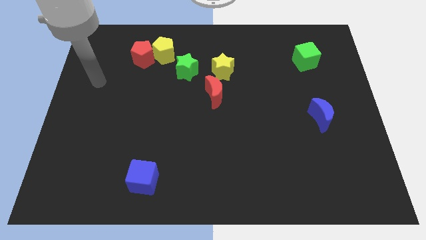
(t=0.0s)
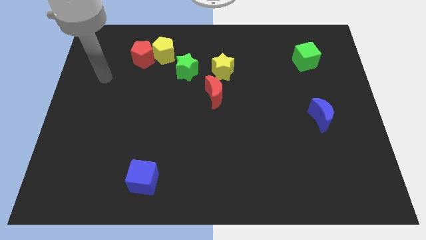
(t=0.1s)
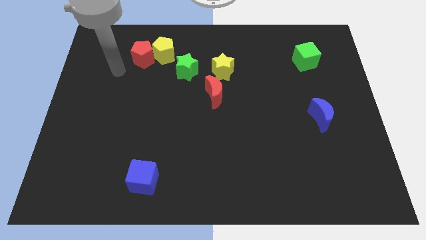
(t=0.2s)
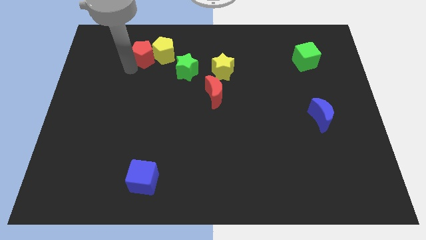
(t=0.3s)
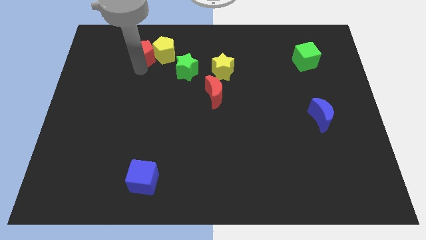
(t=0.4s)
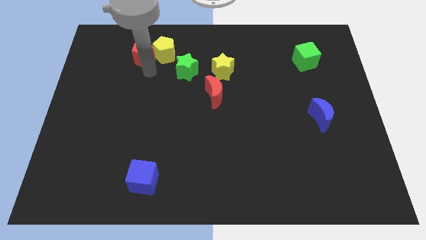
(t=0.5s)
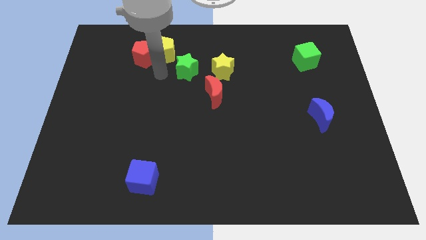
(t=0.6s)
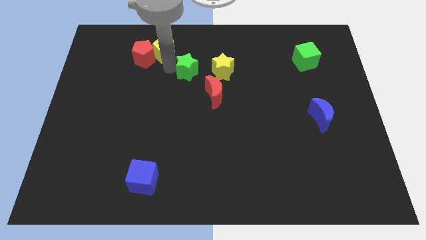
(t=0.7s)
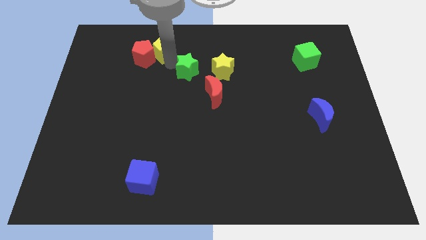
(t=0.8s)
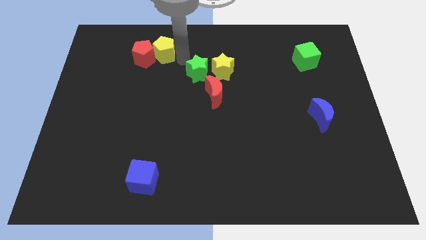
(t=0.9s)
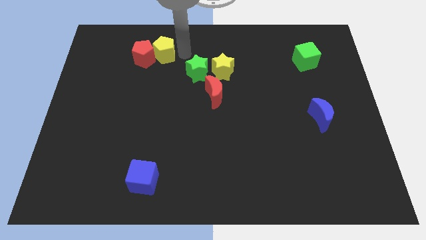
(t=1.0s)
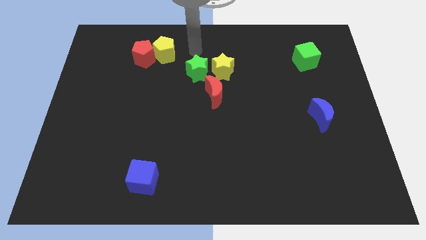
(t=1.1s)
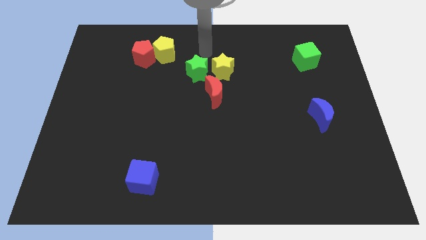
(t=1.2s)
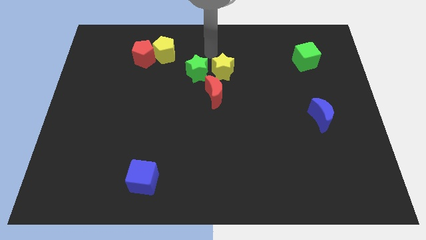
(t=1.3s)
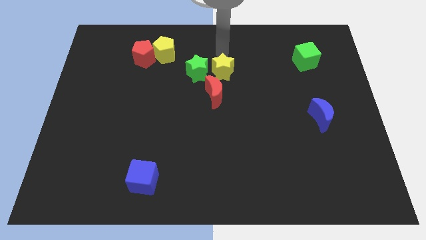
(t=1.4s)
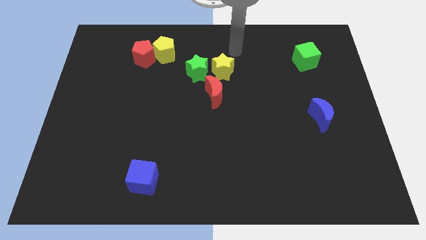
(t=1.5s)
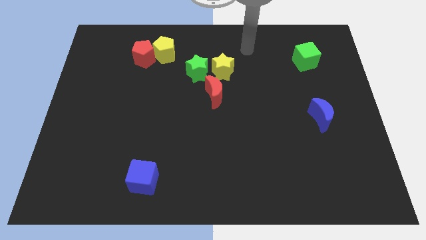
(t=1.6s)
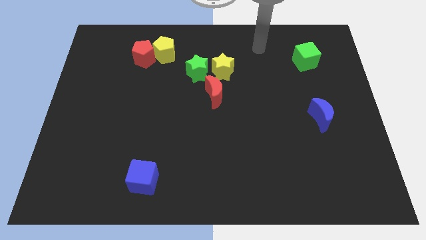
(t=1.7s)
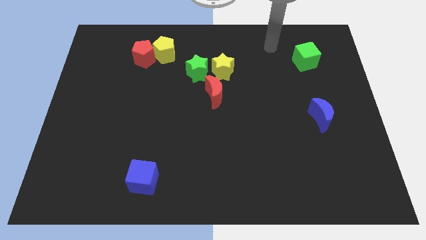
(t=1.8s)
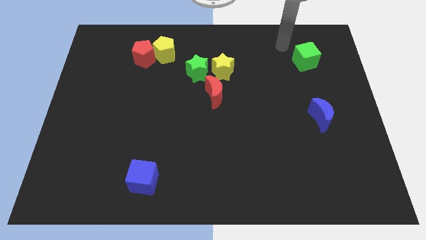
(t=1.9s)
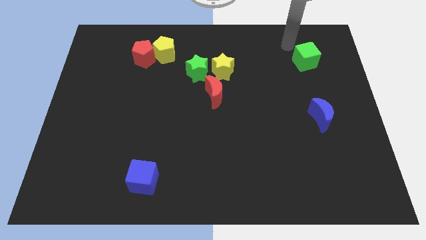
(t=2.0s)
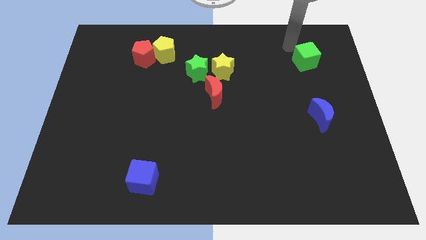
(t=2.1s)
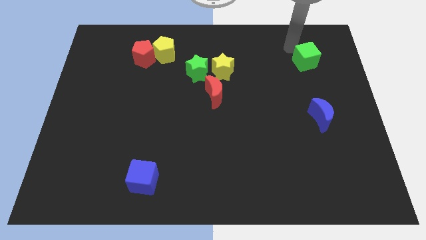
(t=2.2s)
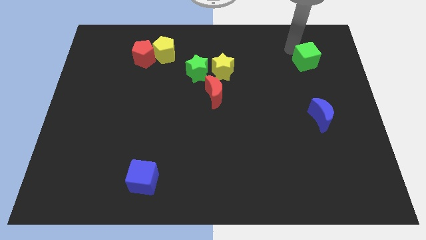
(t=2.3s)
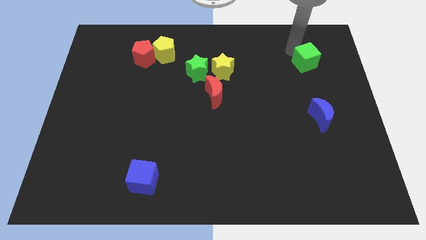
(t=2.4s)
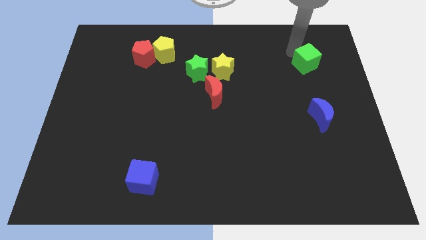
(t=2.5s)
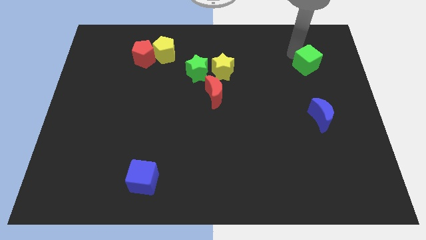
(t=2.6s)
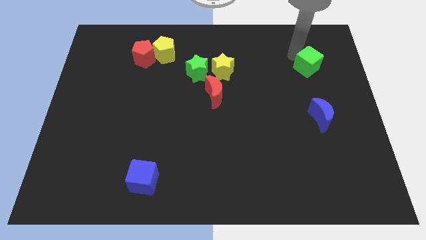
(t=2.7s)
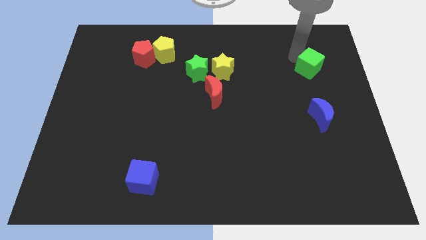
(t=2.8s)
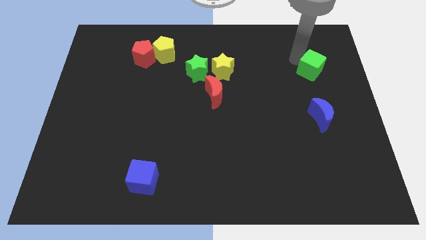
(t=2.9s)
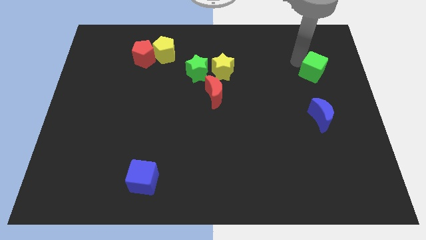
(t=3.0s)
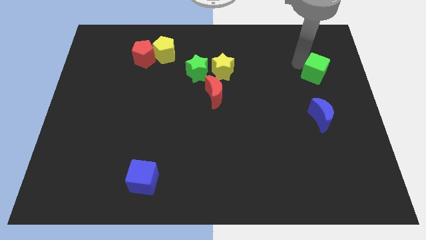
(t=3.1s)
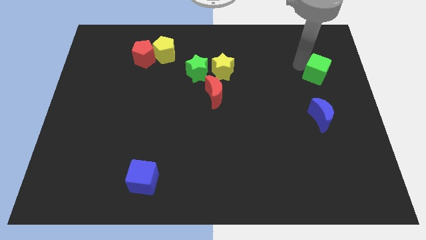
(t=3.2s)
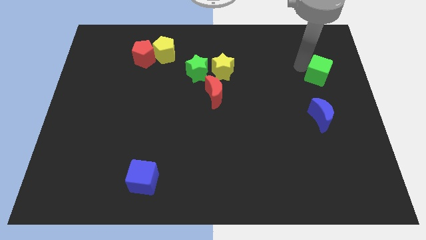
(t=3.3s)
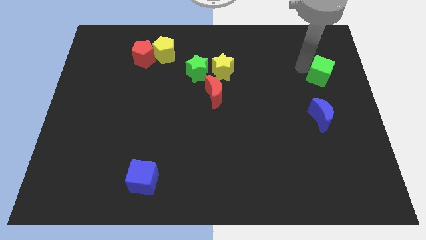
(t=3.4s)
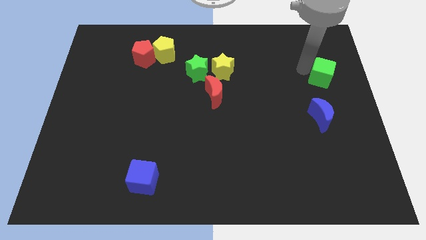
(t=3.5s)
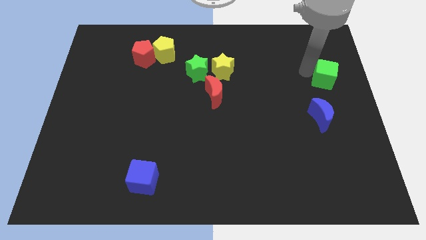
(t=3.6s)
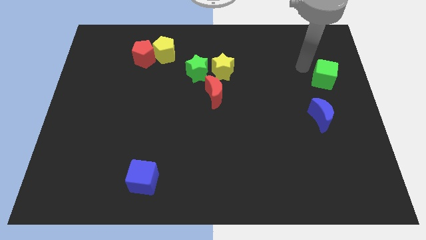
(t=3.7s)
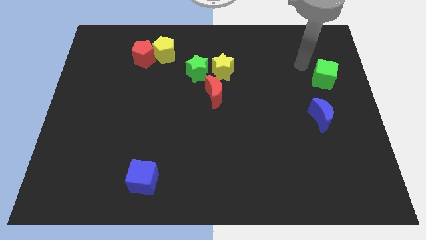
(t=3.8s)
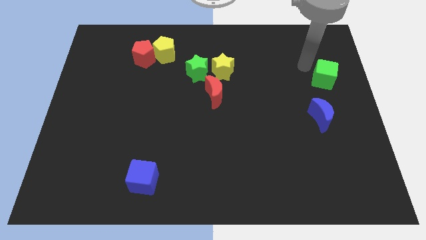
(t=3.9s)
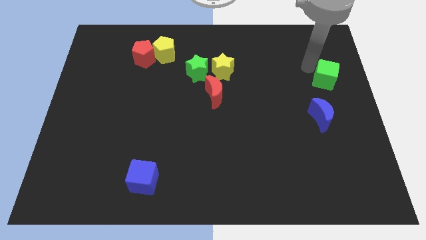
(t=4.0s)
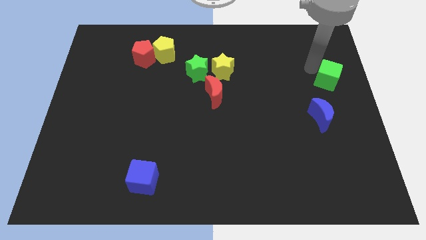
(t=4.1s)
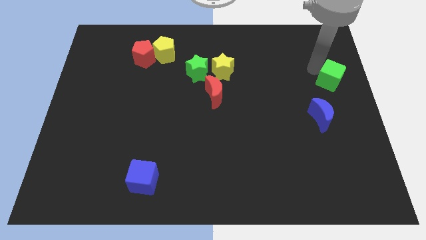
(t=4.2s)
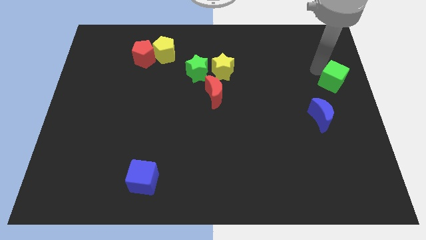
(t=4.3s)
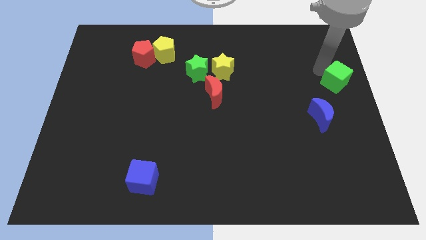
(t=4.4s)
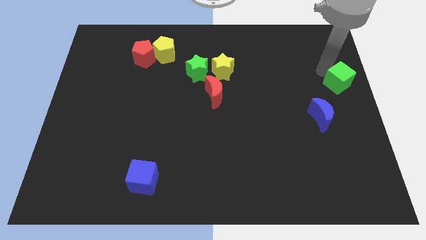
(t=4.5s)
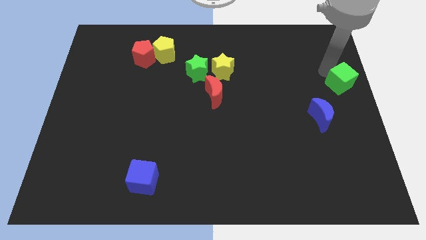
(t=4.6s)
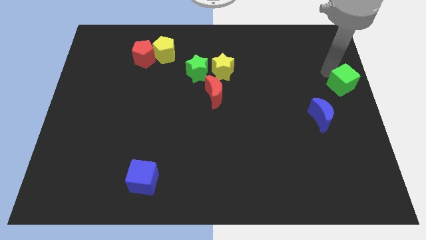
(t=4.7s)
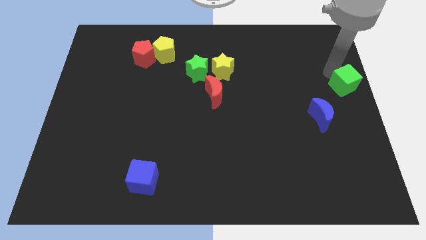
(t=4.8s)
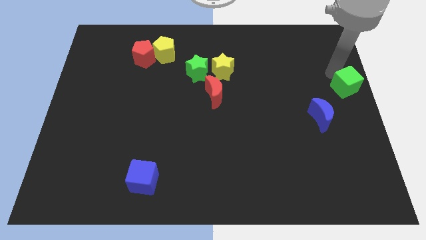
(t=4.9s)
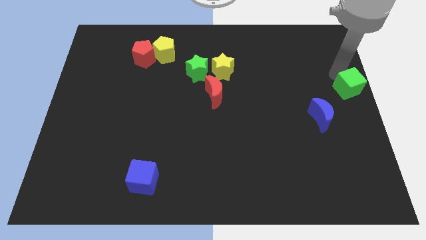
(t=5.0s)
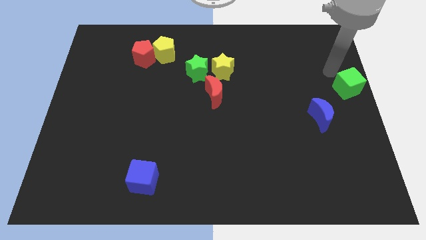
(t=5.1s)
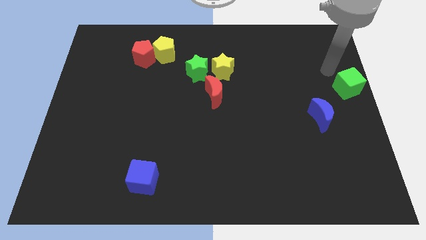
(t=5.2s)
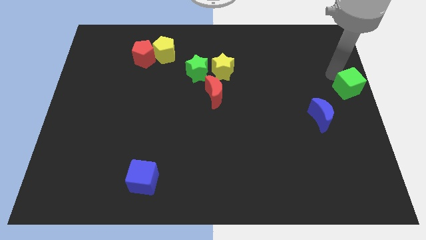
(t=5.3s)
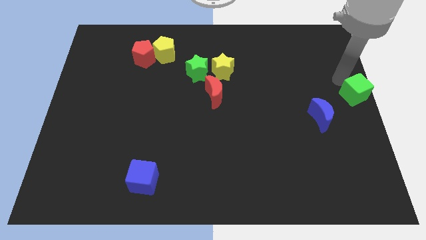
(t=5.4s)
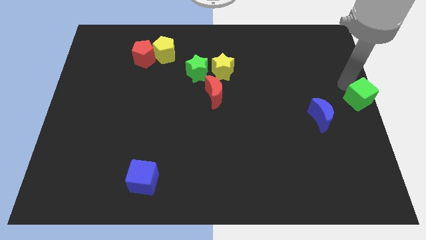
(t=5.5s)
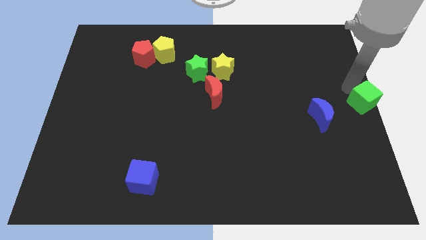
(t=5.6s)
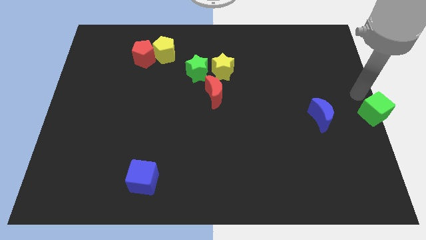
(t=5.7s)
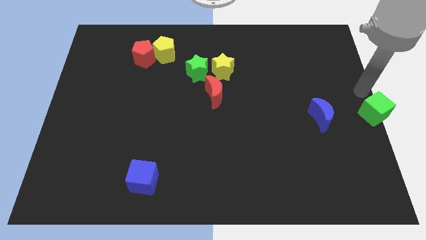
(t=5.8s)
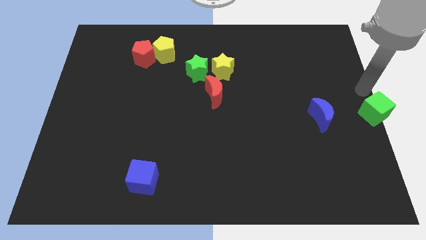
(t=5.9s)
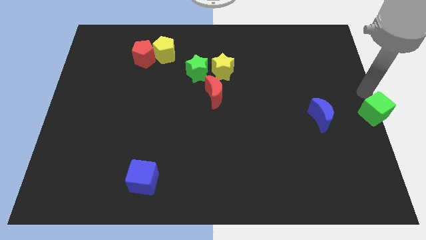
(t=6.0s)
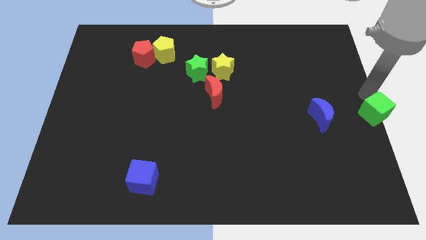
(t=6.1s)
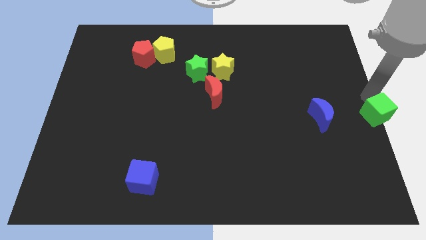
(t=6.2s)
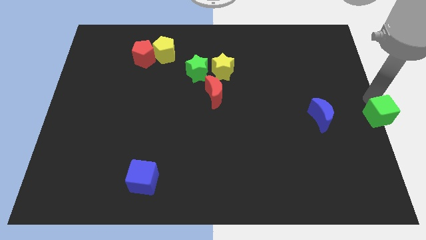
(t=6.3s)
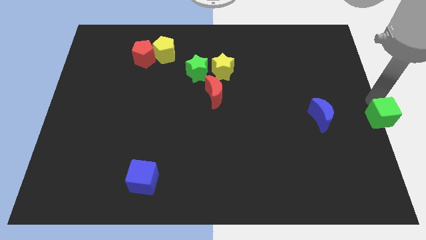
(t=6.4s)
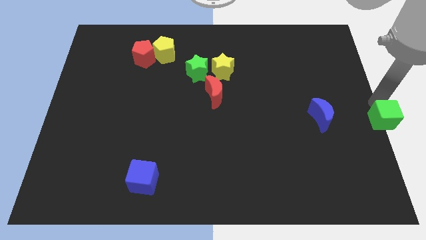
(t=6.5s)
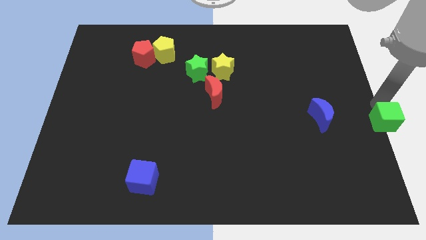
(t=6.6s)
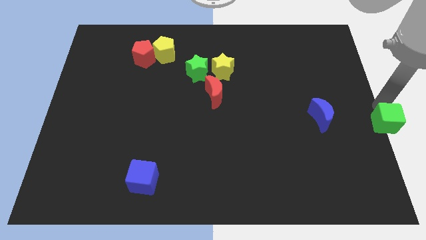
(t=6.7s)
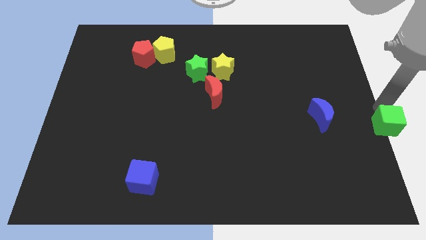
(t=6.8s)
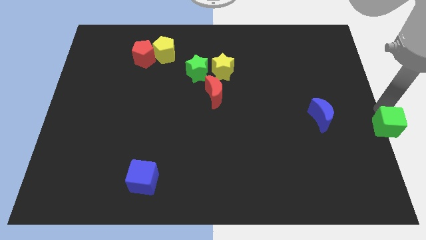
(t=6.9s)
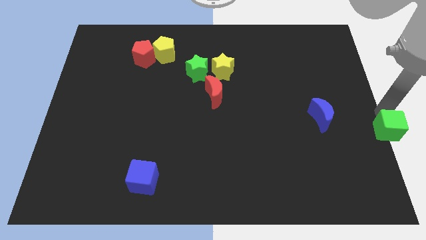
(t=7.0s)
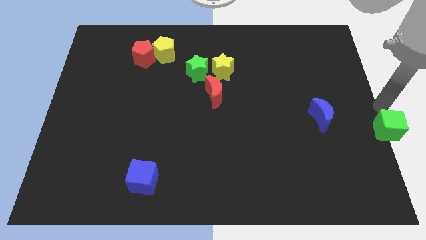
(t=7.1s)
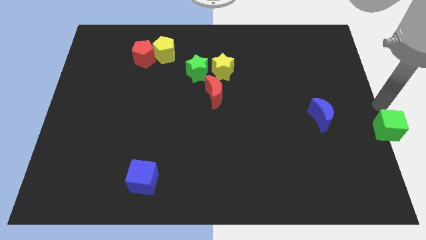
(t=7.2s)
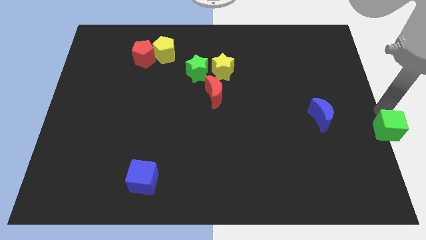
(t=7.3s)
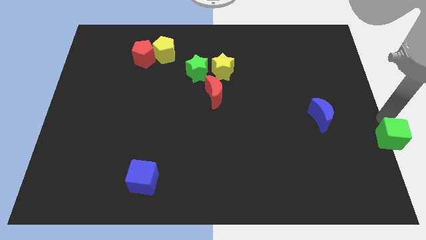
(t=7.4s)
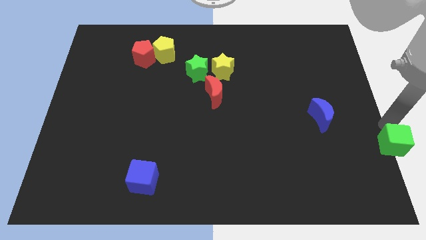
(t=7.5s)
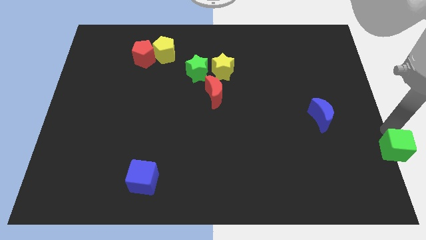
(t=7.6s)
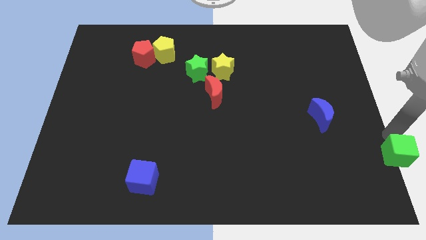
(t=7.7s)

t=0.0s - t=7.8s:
move the green cube to the bottom right corner
